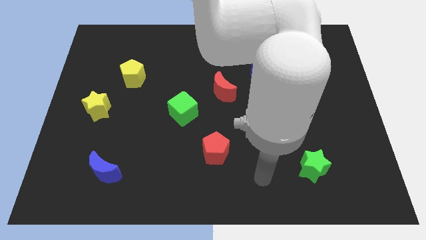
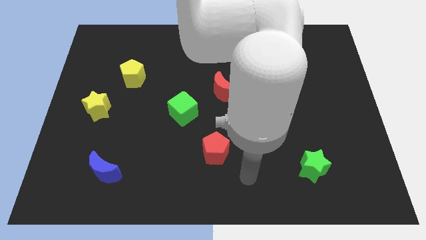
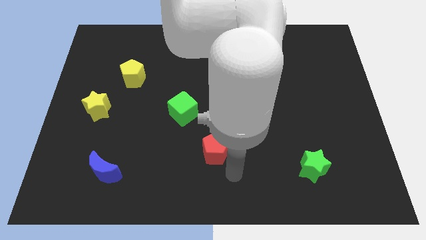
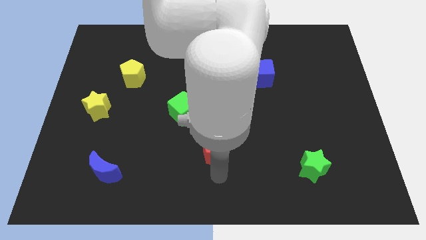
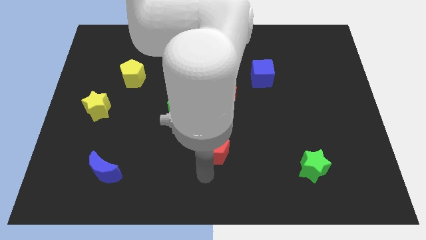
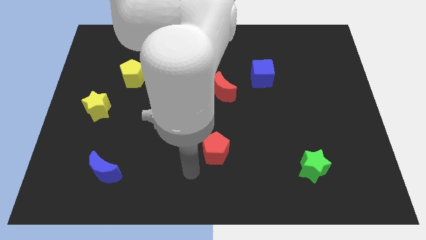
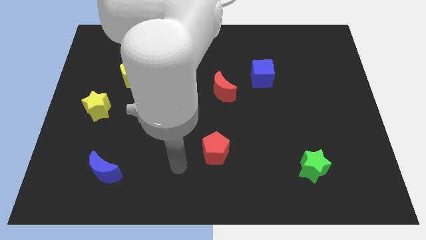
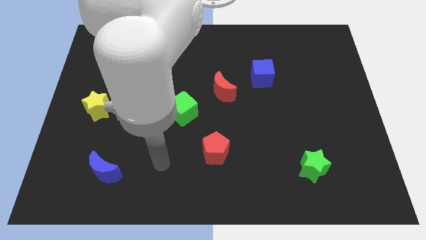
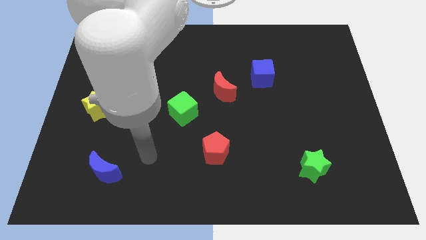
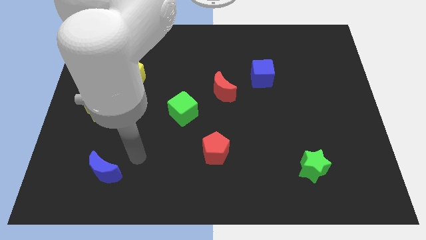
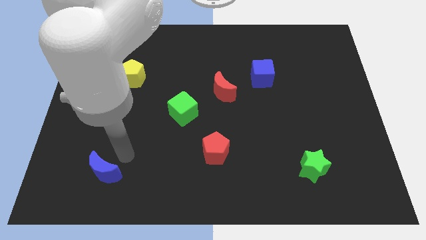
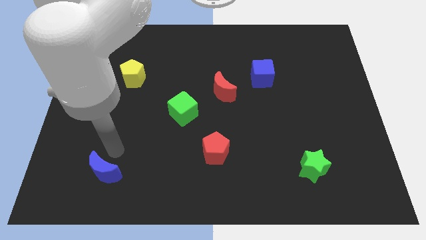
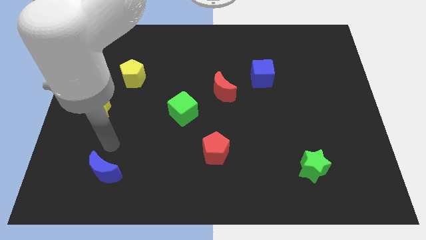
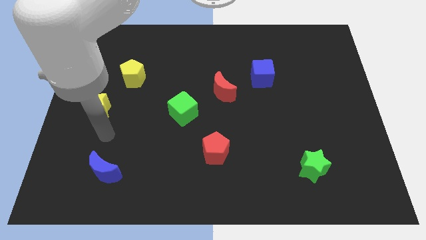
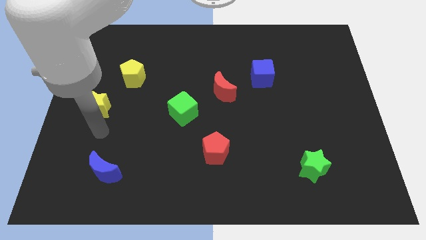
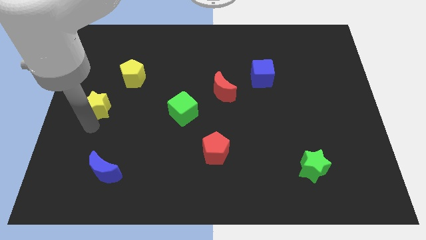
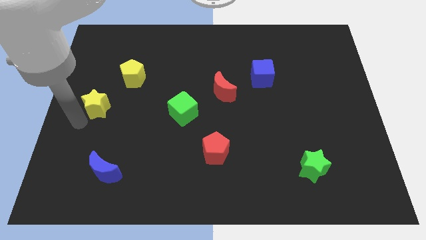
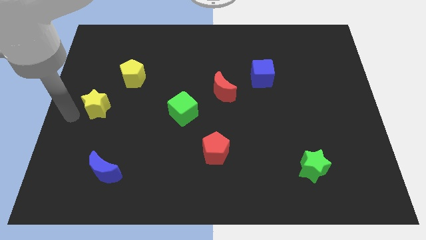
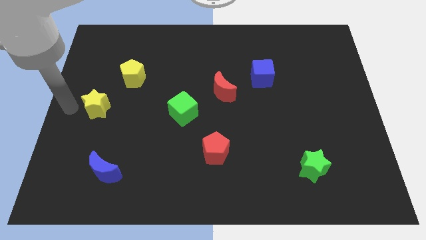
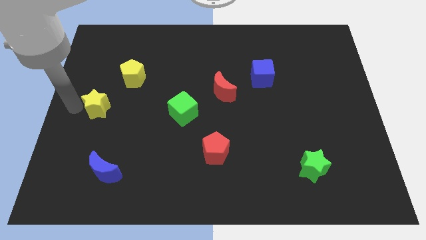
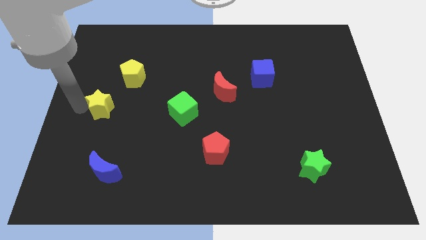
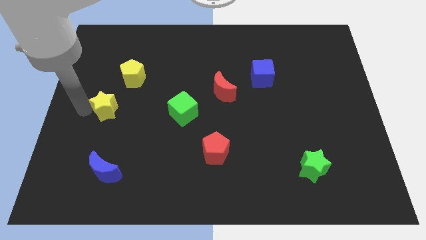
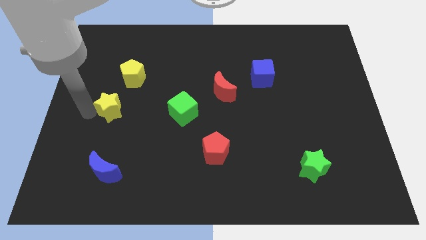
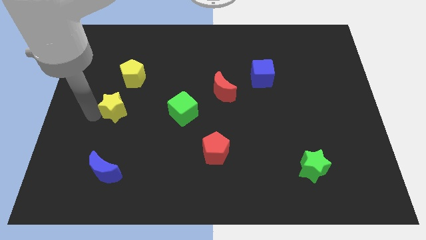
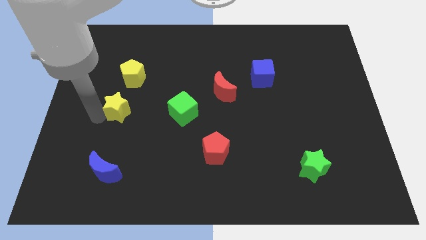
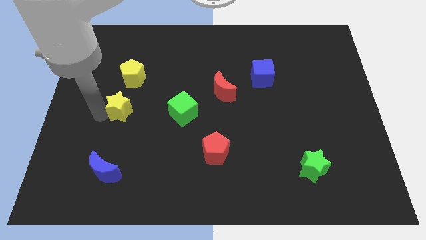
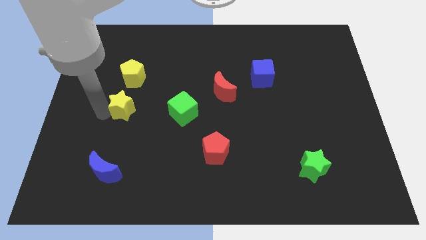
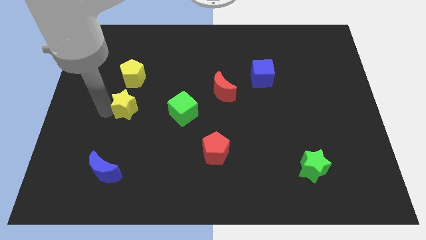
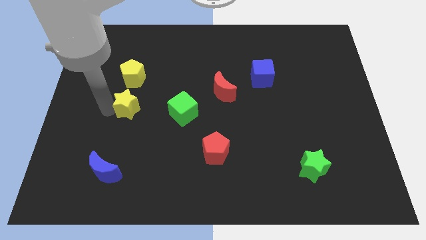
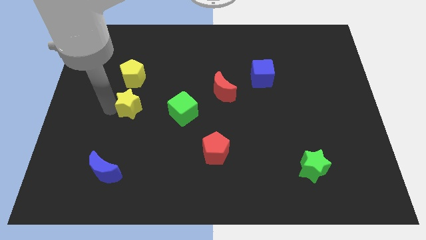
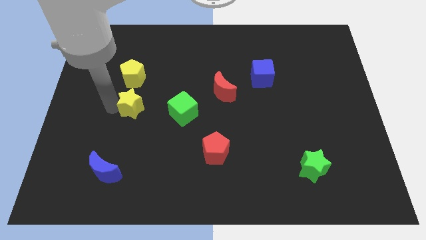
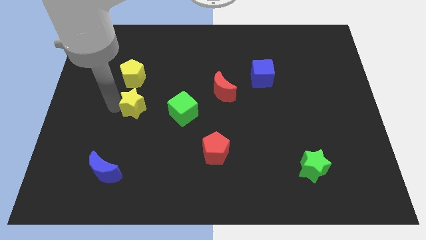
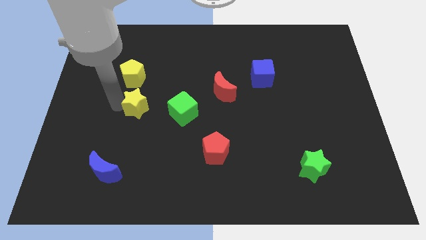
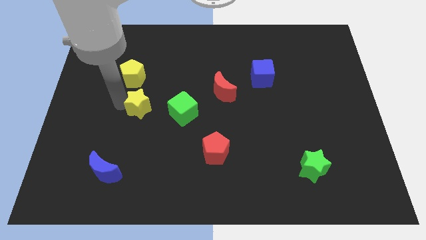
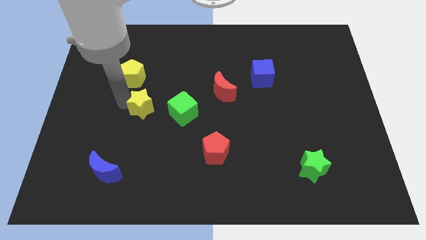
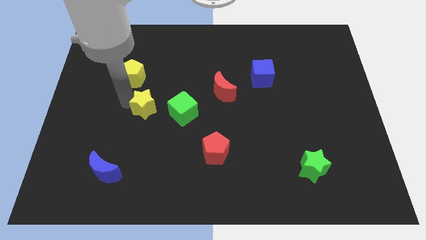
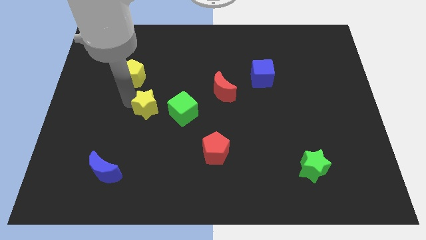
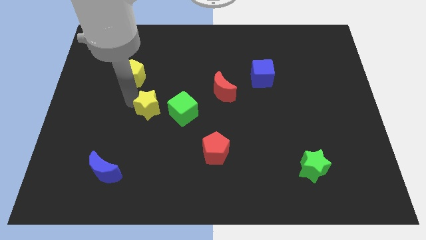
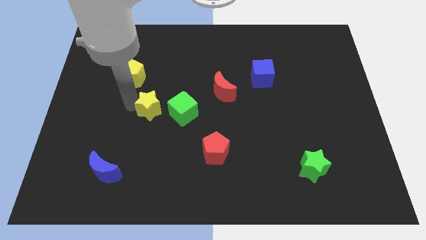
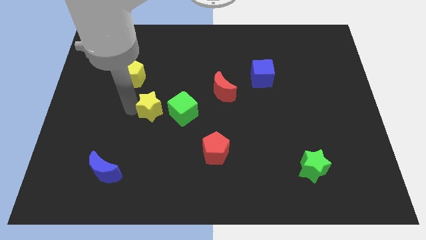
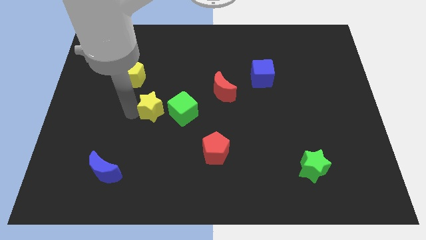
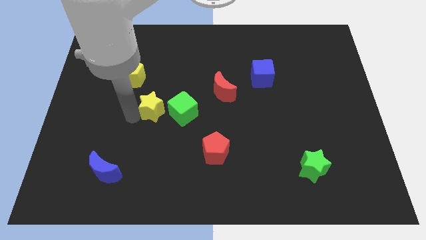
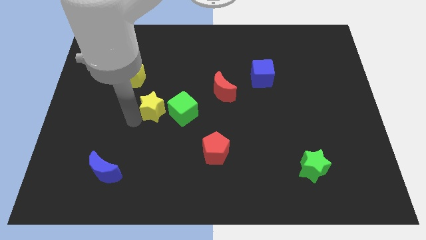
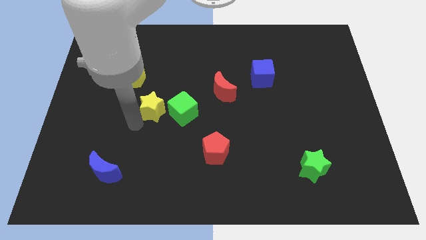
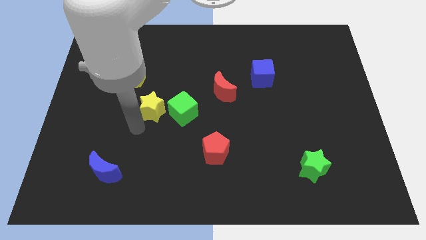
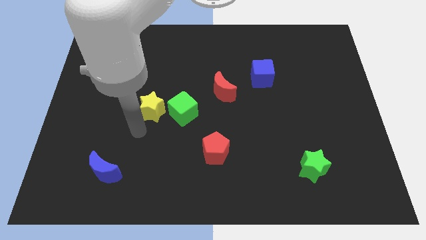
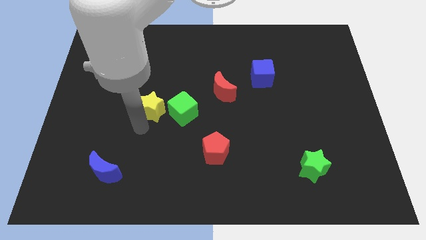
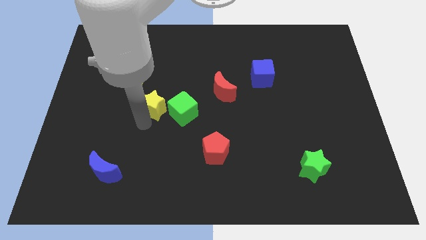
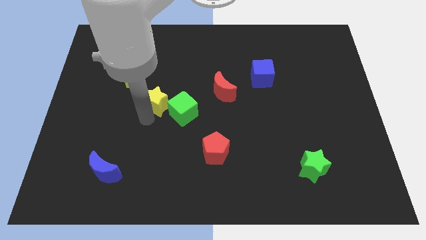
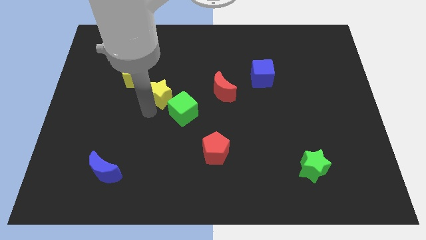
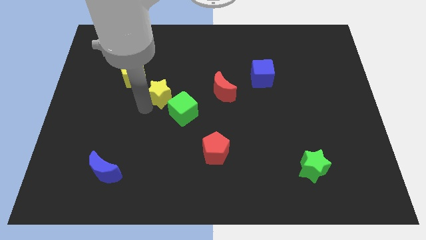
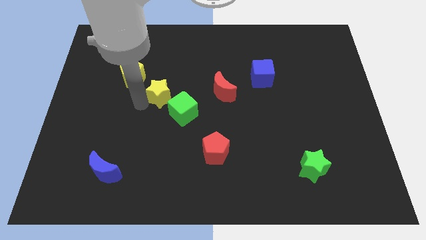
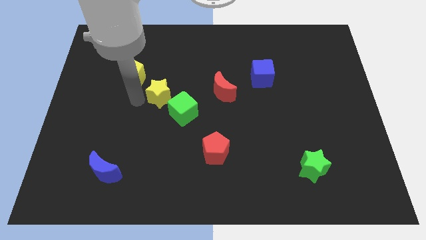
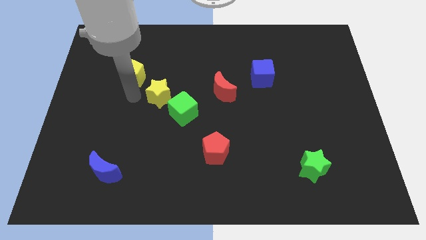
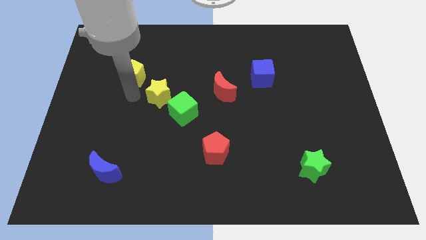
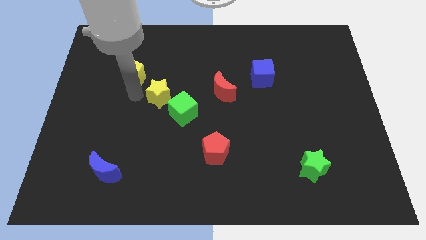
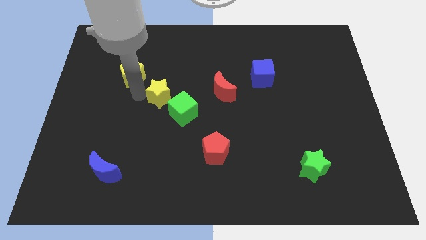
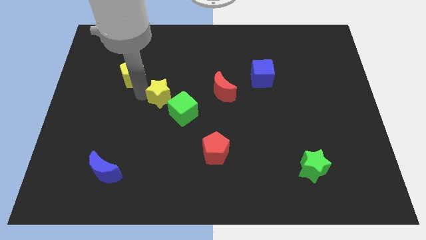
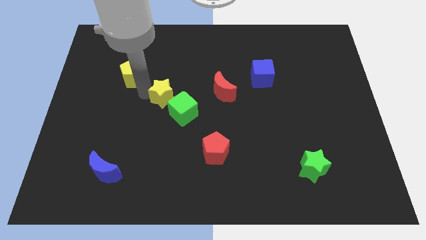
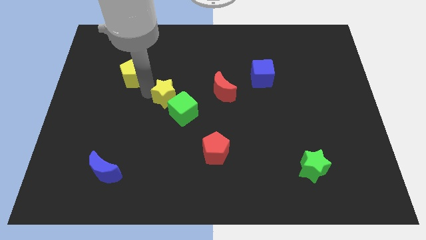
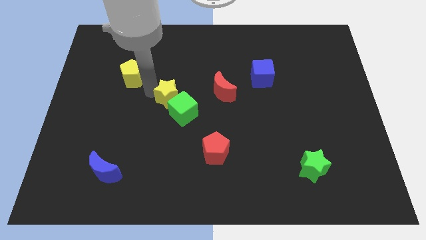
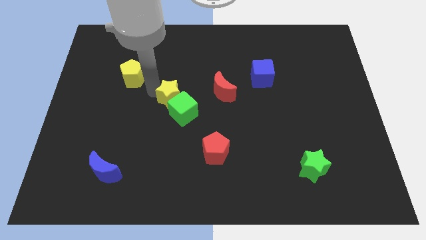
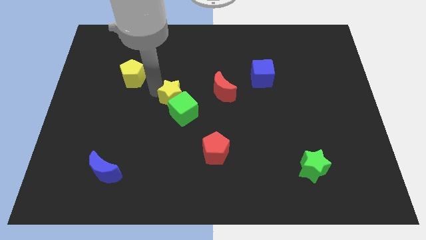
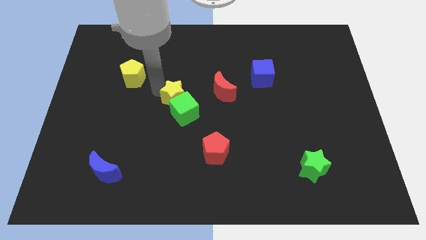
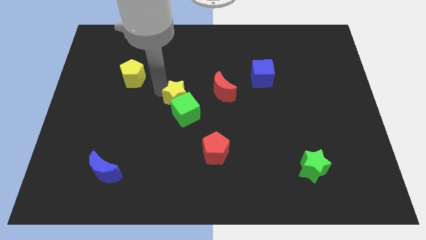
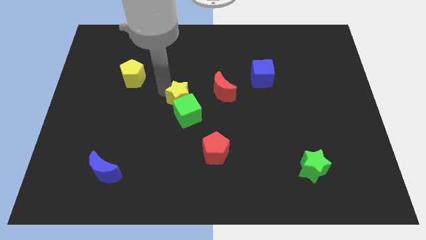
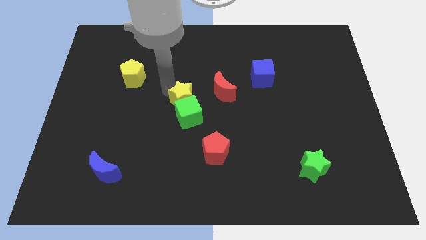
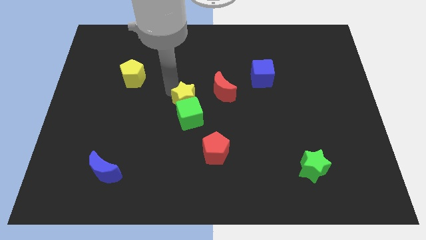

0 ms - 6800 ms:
move the yellow star right

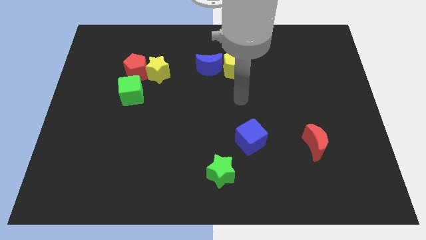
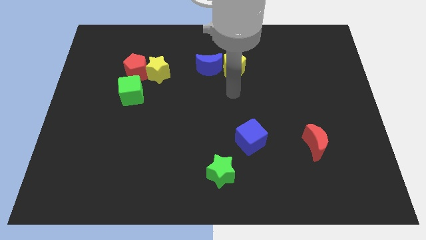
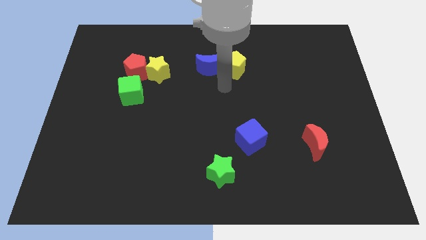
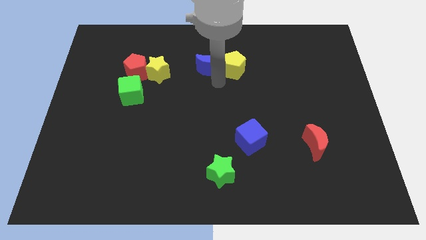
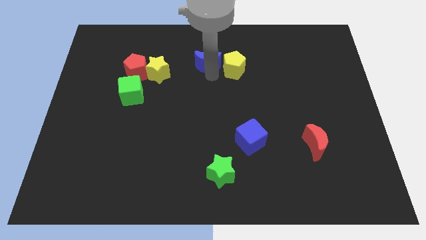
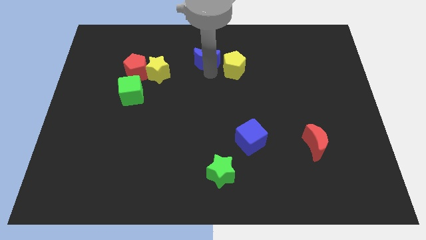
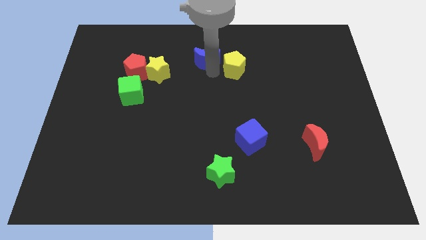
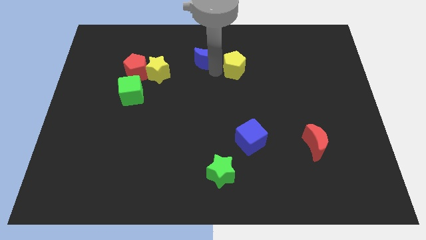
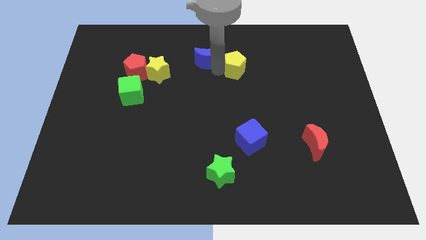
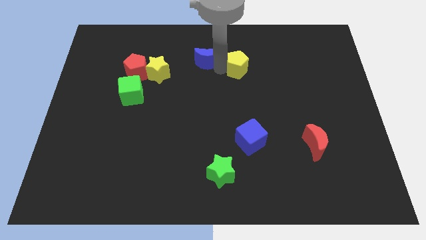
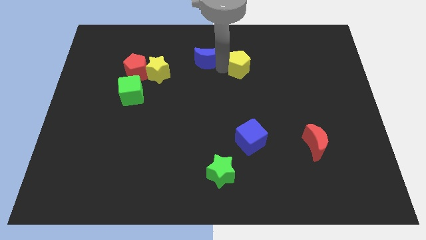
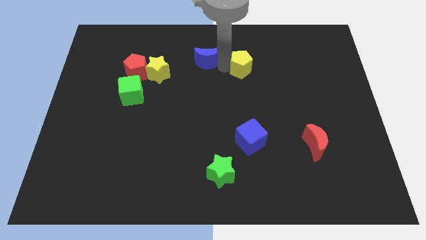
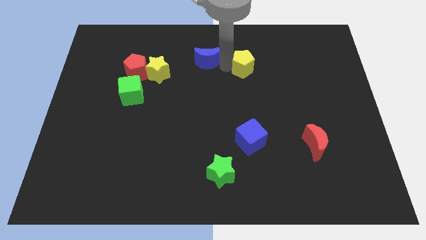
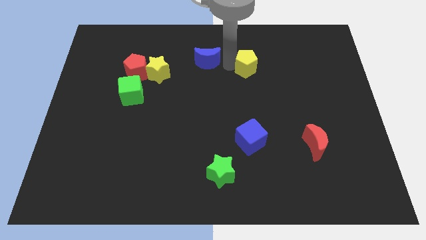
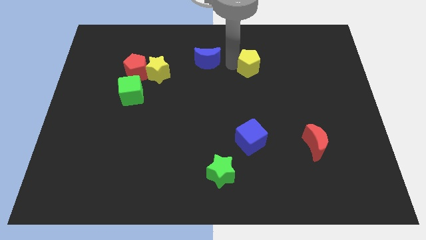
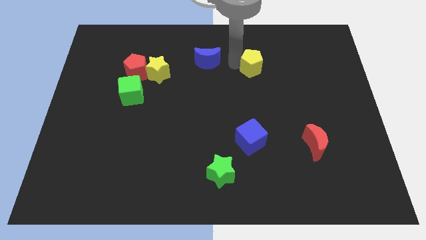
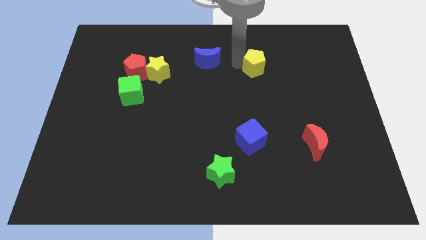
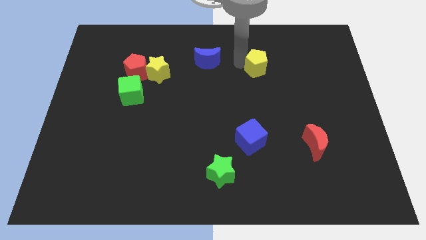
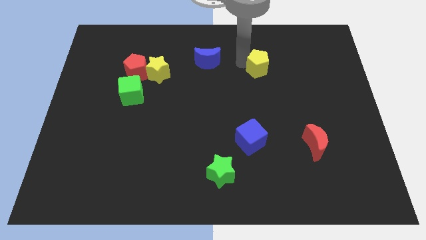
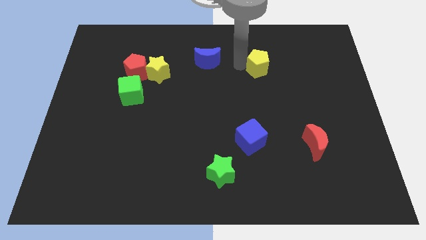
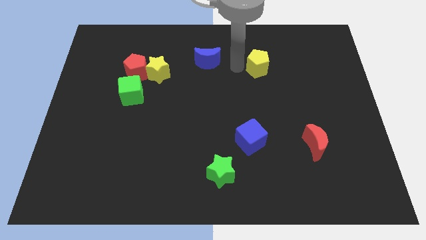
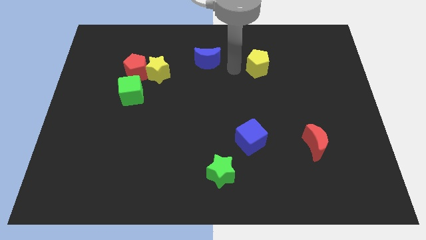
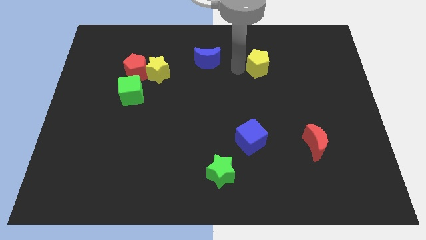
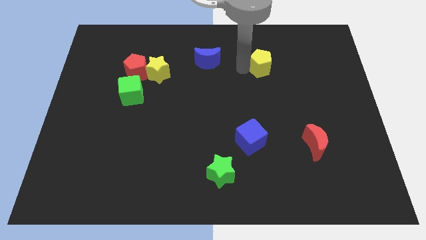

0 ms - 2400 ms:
slightly push the yellow pentagon right
